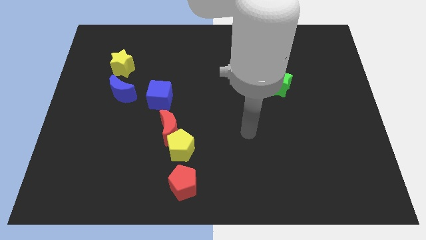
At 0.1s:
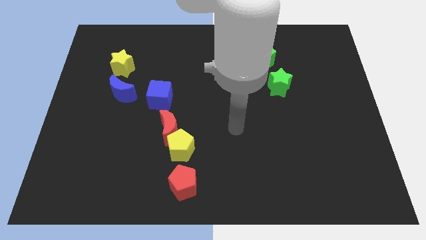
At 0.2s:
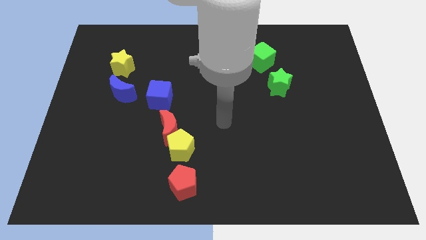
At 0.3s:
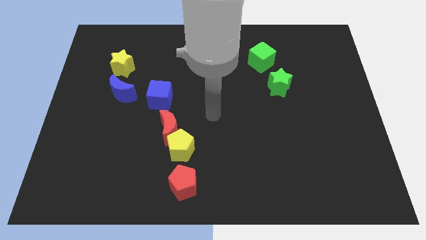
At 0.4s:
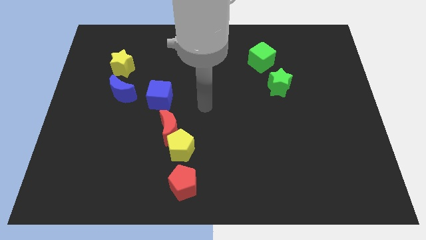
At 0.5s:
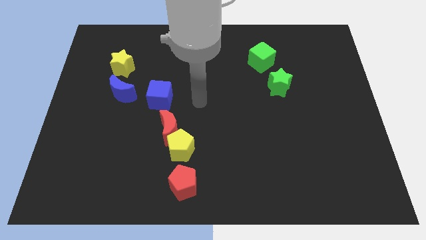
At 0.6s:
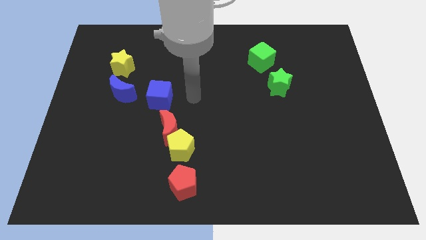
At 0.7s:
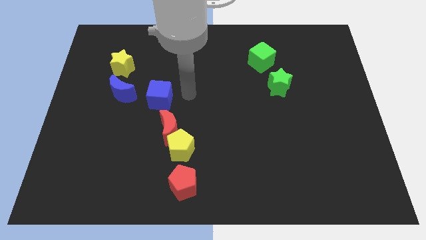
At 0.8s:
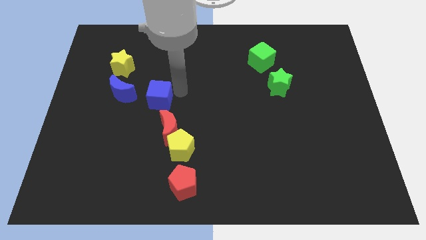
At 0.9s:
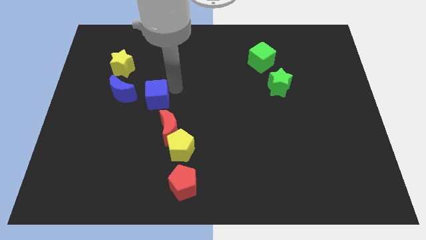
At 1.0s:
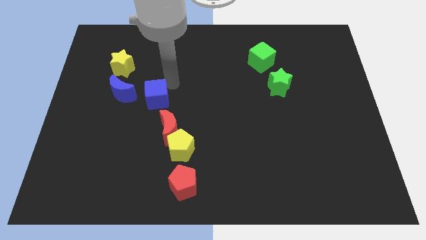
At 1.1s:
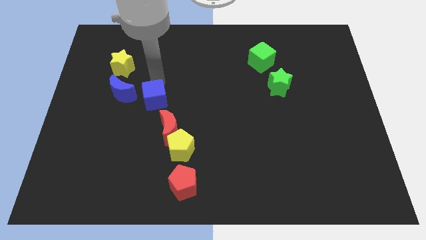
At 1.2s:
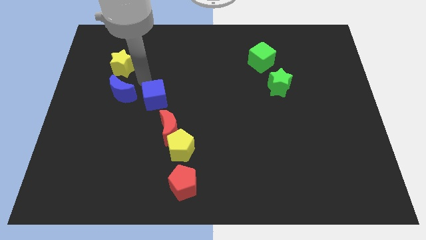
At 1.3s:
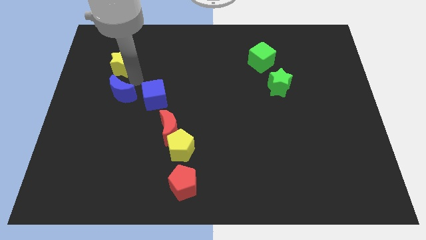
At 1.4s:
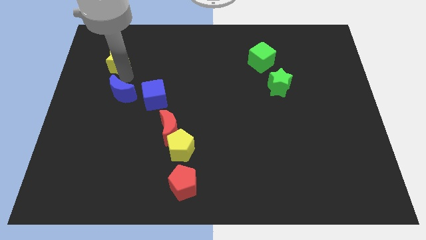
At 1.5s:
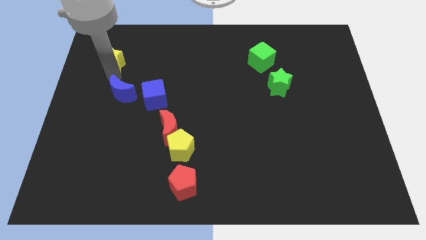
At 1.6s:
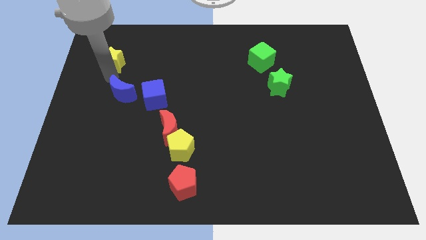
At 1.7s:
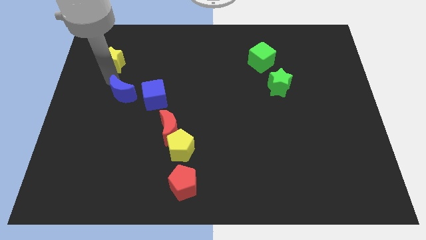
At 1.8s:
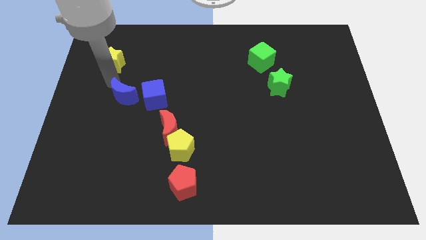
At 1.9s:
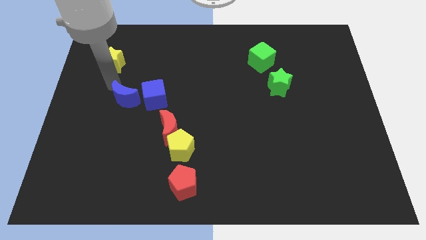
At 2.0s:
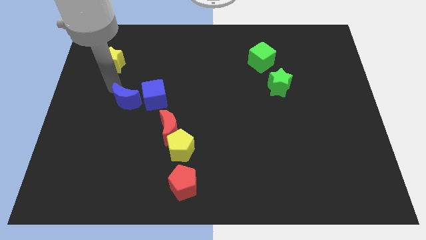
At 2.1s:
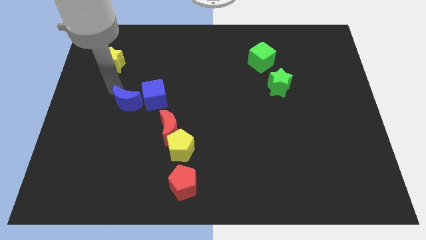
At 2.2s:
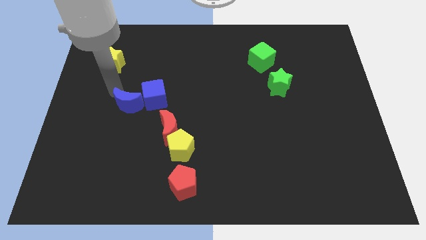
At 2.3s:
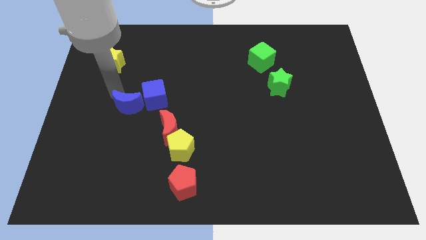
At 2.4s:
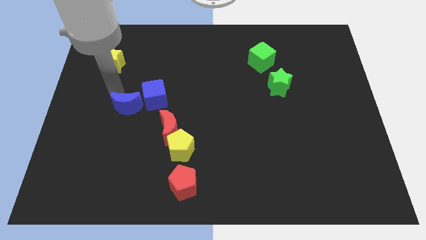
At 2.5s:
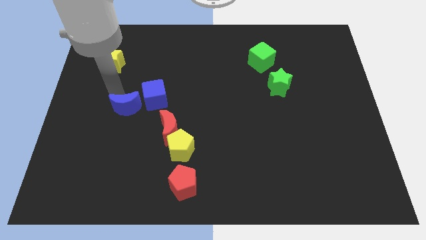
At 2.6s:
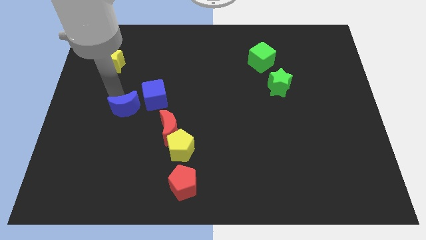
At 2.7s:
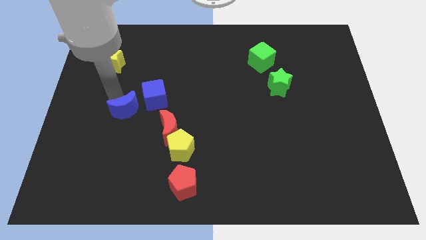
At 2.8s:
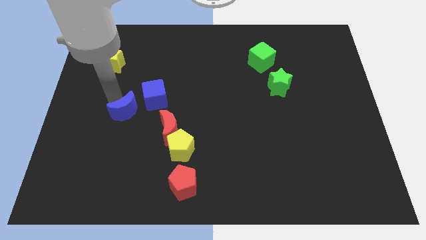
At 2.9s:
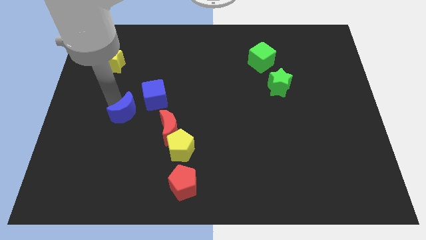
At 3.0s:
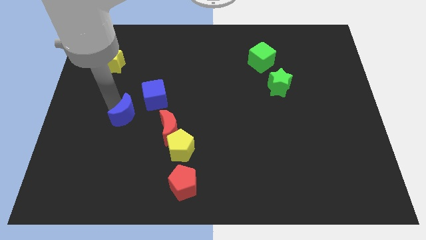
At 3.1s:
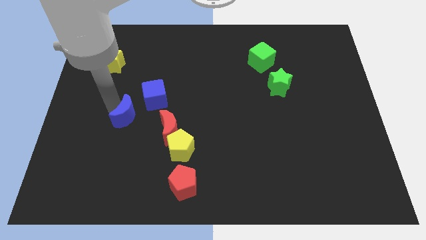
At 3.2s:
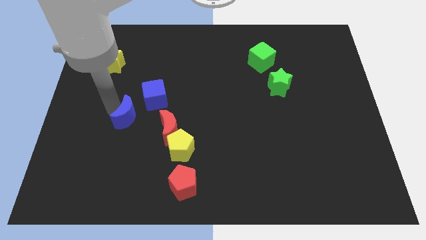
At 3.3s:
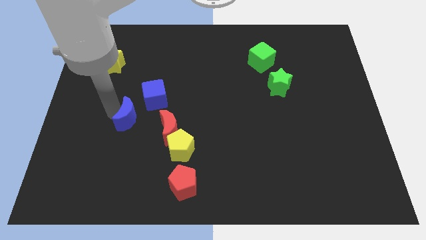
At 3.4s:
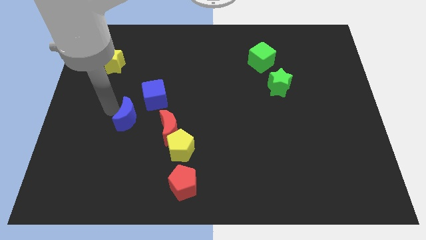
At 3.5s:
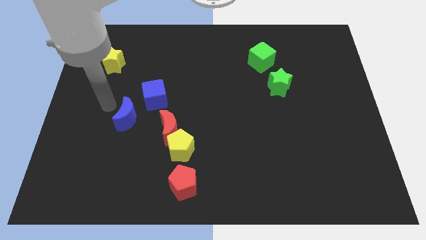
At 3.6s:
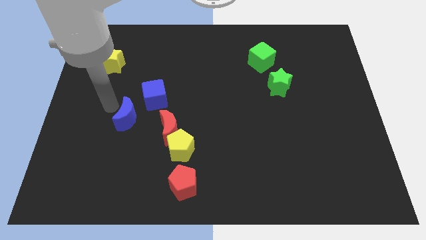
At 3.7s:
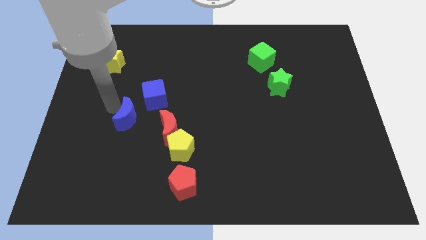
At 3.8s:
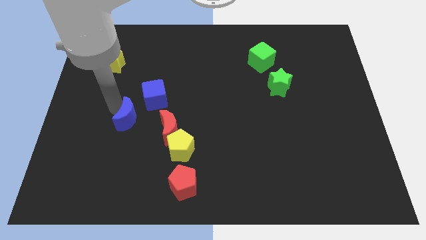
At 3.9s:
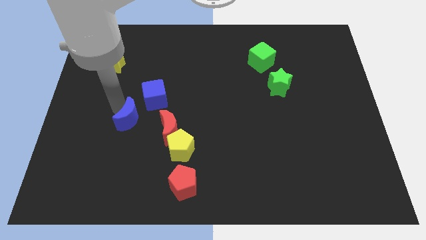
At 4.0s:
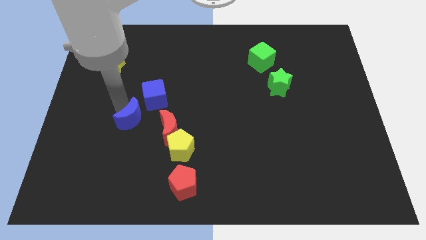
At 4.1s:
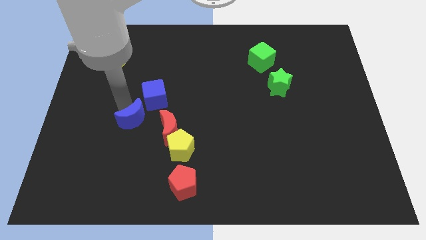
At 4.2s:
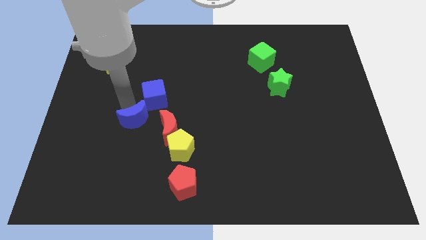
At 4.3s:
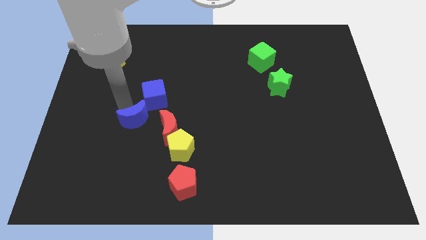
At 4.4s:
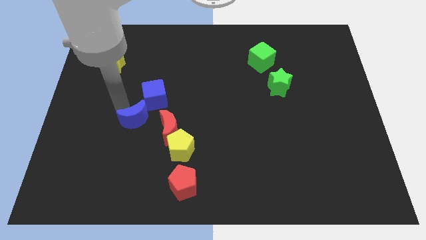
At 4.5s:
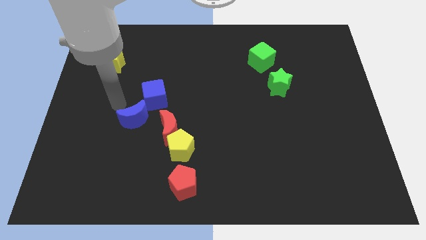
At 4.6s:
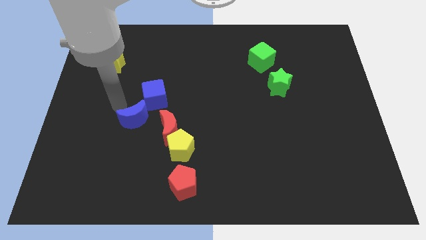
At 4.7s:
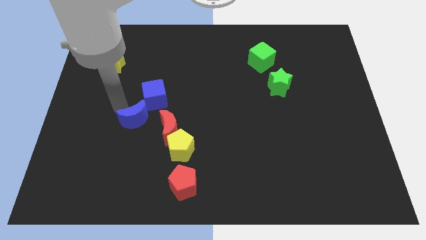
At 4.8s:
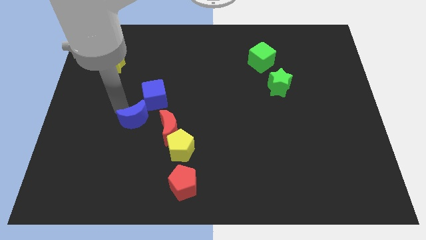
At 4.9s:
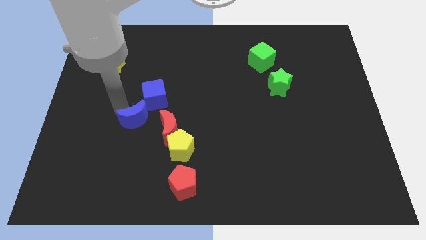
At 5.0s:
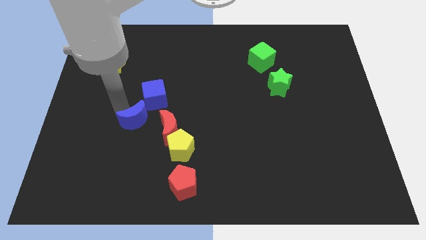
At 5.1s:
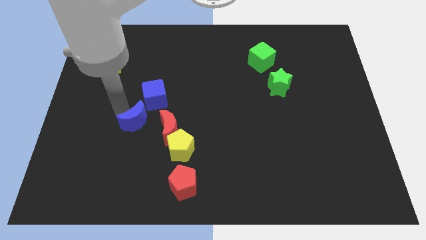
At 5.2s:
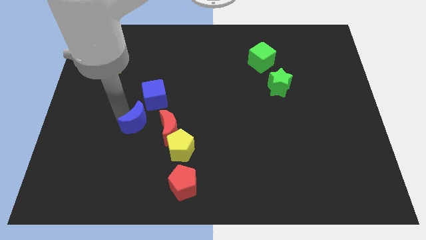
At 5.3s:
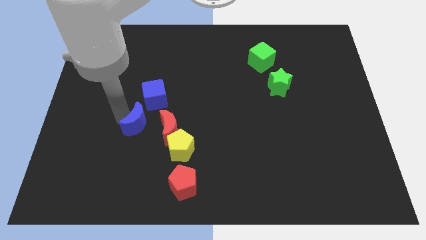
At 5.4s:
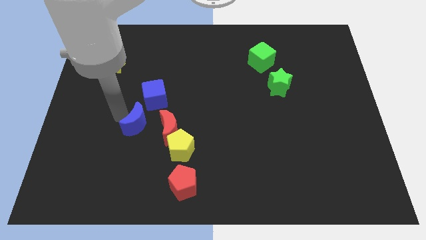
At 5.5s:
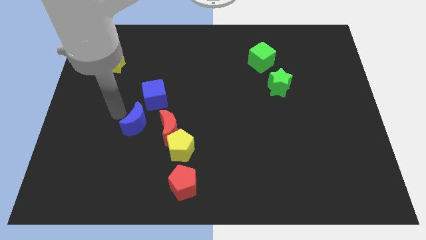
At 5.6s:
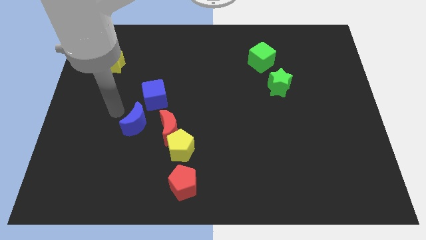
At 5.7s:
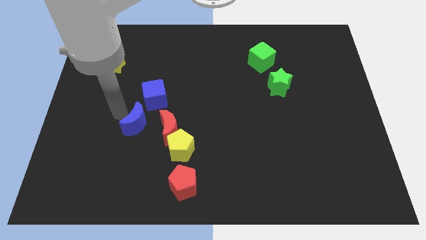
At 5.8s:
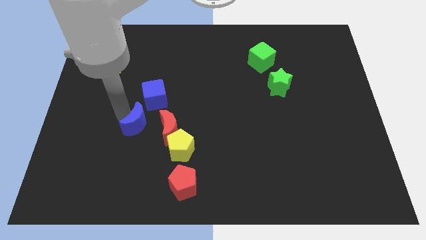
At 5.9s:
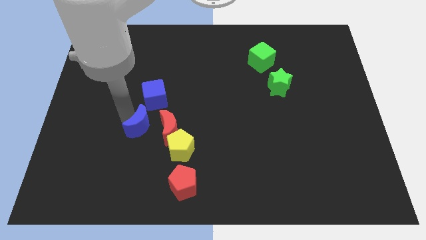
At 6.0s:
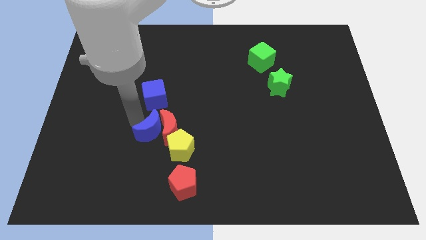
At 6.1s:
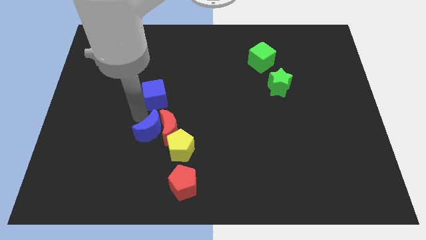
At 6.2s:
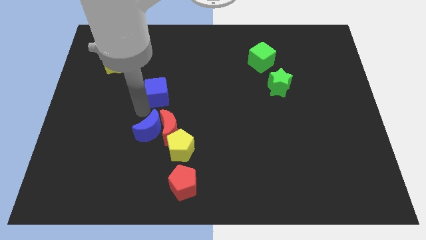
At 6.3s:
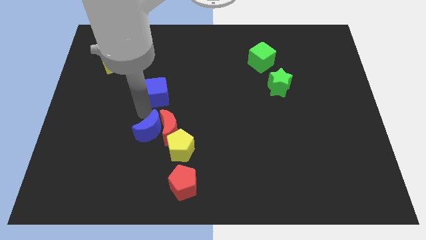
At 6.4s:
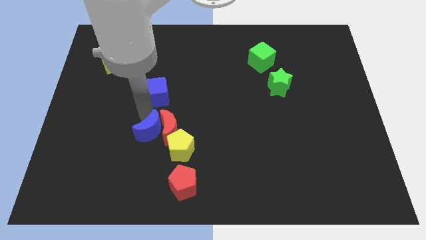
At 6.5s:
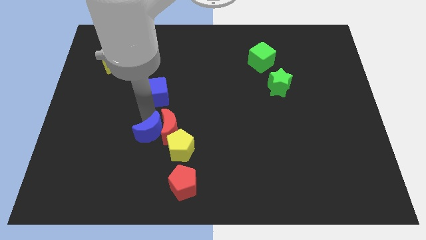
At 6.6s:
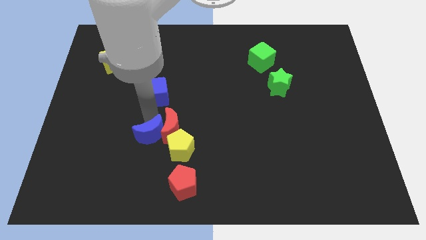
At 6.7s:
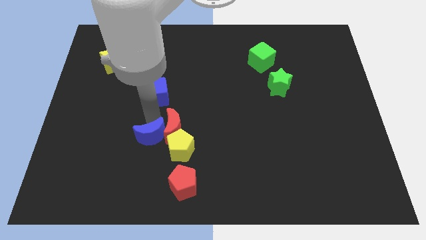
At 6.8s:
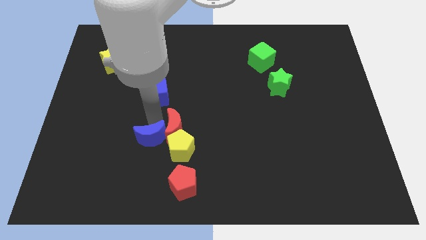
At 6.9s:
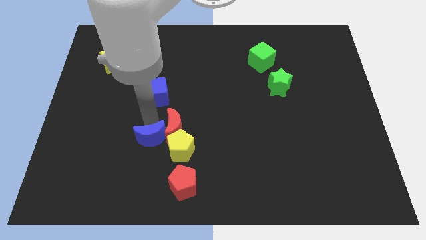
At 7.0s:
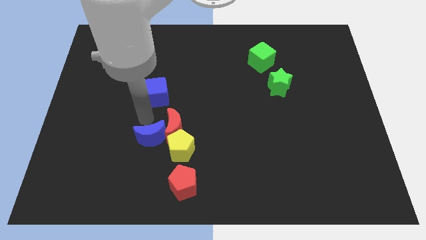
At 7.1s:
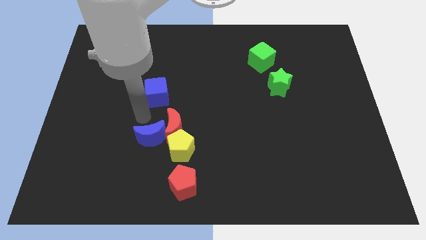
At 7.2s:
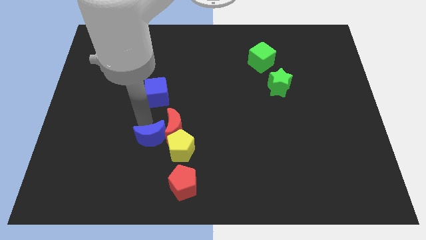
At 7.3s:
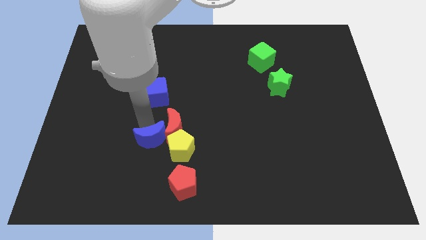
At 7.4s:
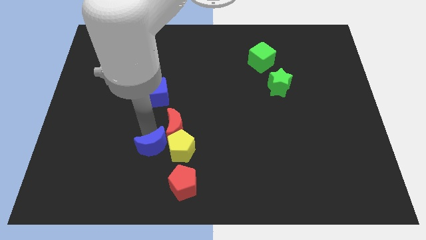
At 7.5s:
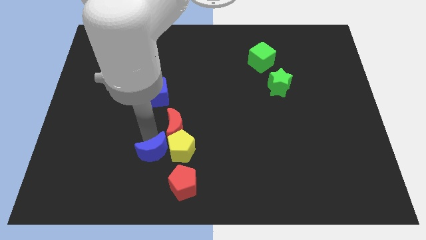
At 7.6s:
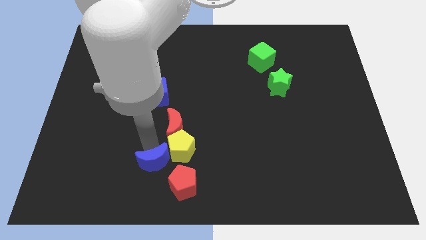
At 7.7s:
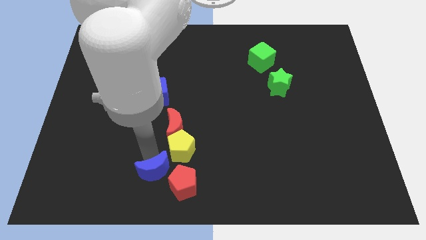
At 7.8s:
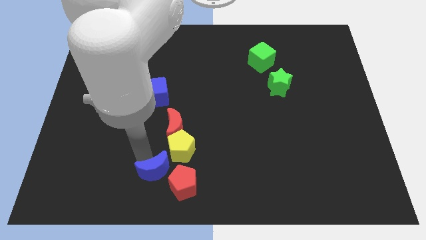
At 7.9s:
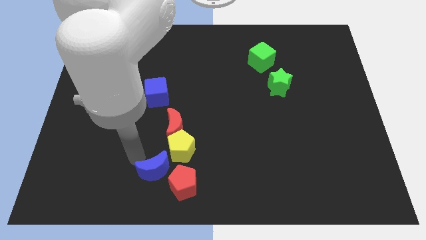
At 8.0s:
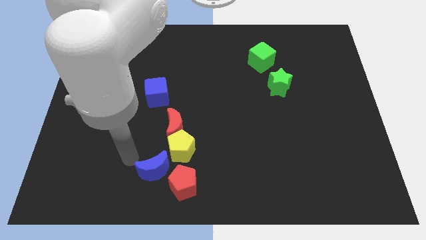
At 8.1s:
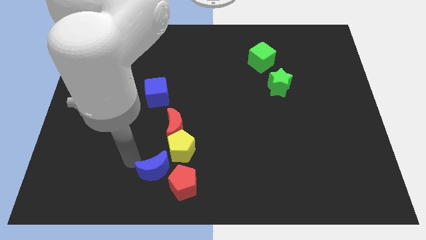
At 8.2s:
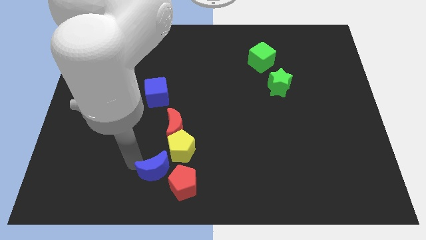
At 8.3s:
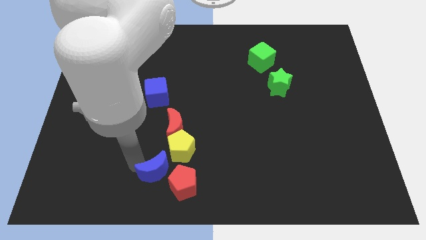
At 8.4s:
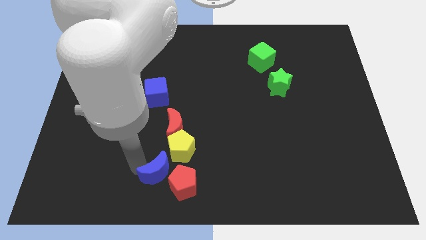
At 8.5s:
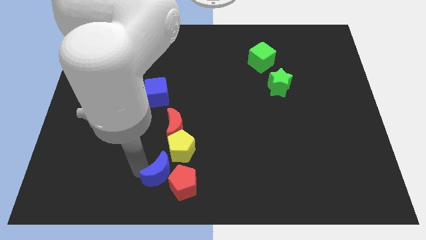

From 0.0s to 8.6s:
push the blue moon towards the red pentagon
